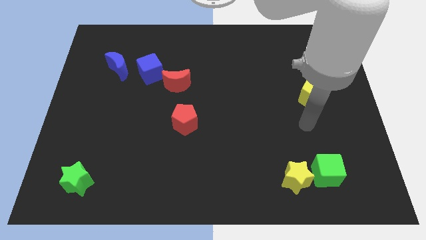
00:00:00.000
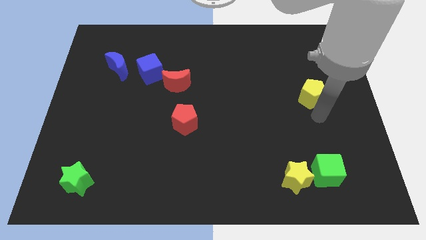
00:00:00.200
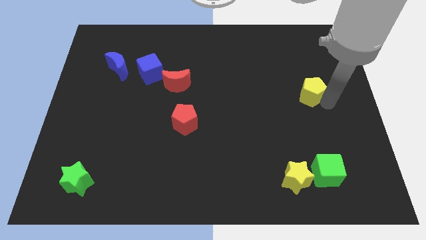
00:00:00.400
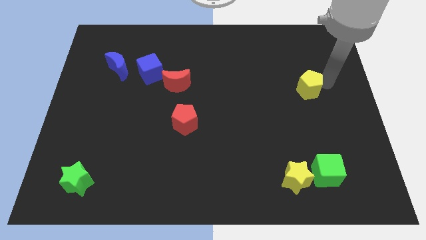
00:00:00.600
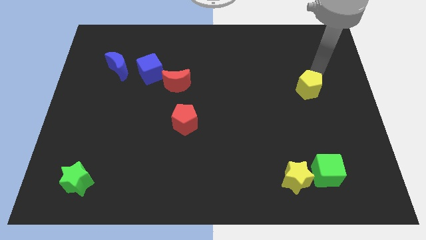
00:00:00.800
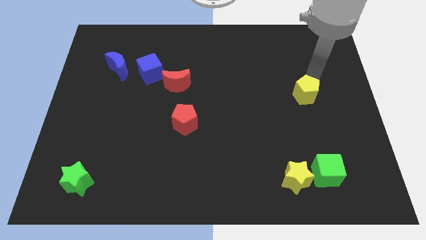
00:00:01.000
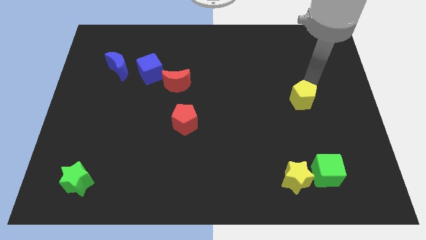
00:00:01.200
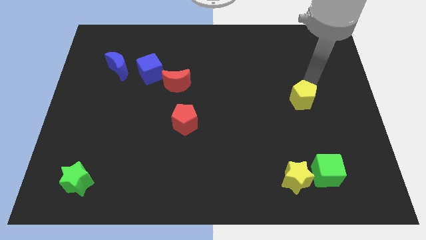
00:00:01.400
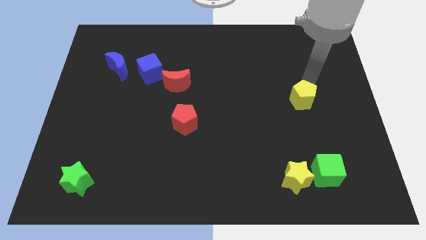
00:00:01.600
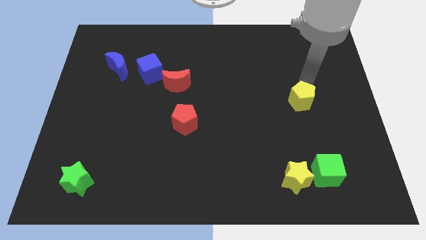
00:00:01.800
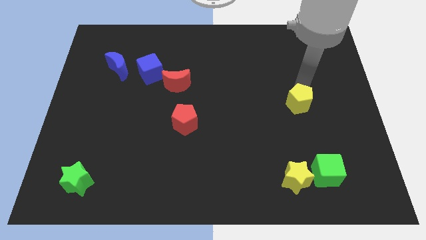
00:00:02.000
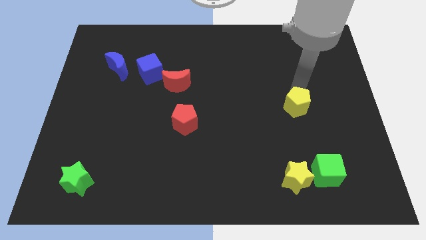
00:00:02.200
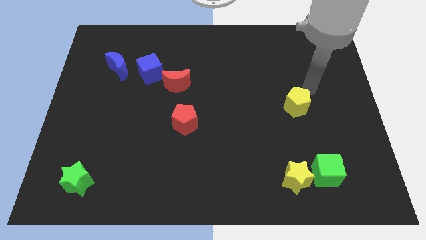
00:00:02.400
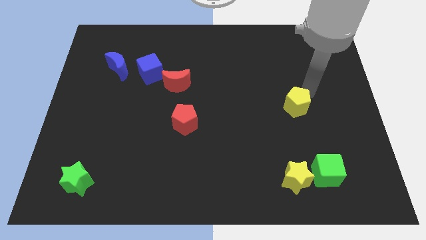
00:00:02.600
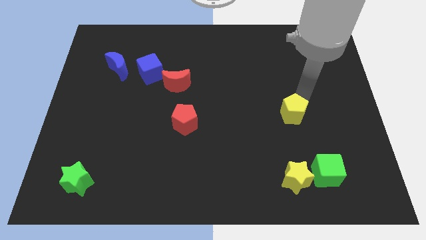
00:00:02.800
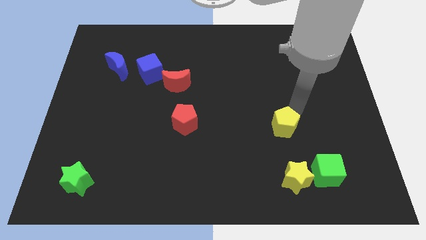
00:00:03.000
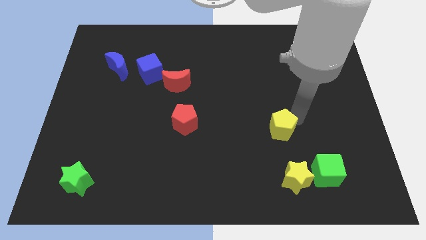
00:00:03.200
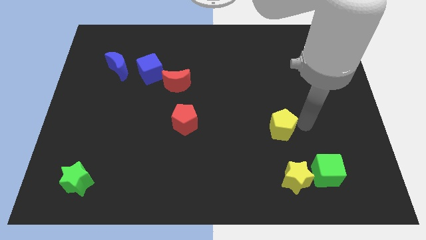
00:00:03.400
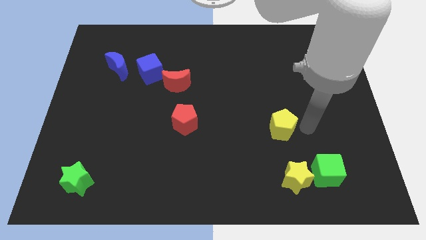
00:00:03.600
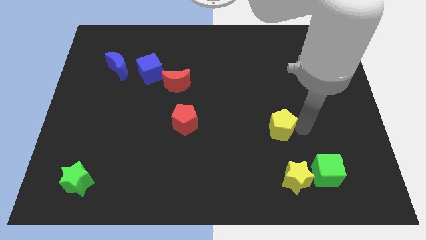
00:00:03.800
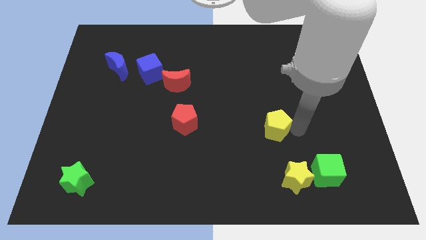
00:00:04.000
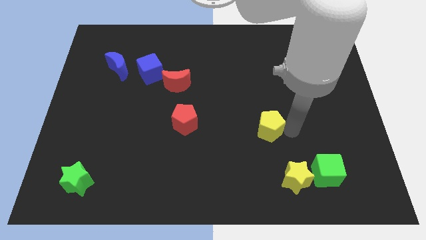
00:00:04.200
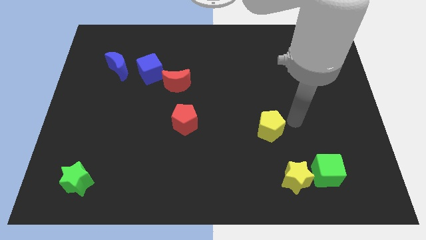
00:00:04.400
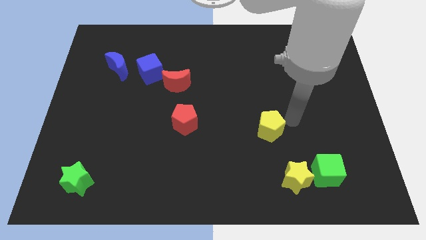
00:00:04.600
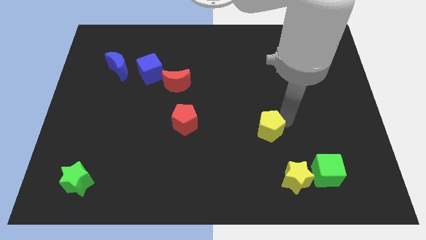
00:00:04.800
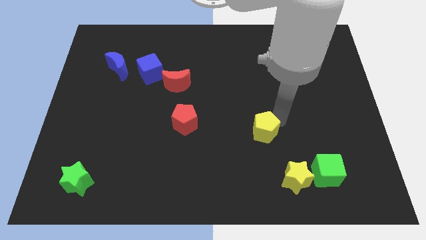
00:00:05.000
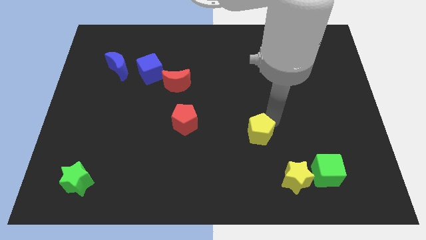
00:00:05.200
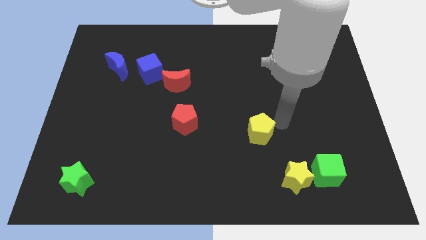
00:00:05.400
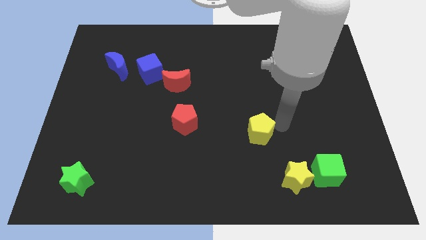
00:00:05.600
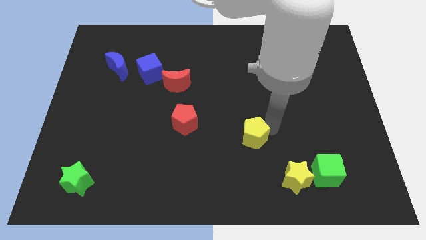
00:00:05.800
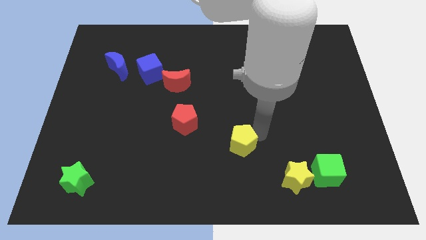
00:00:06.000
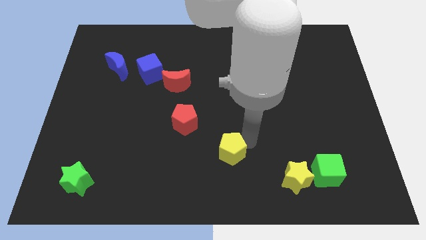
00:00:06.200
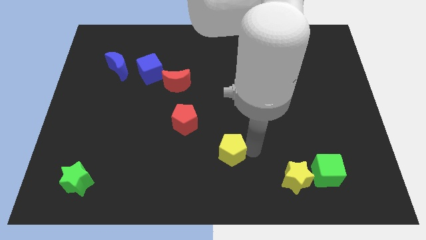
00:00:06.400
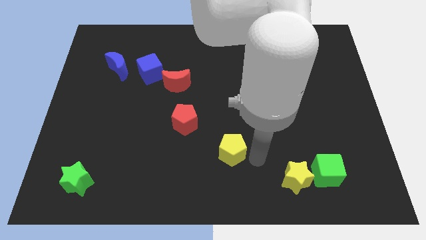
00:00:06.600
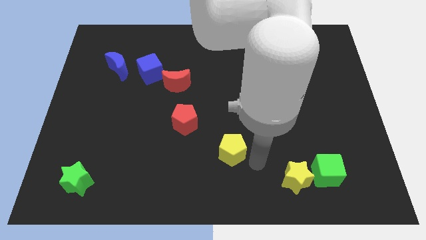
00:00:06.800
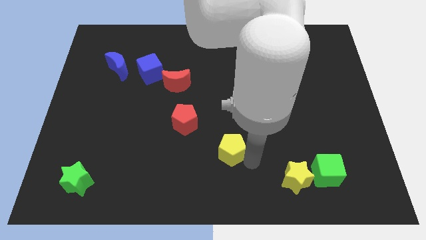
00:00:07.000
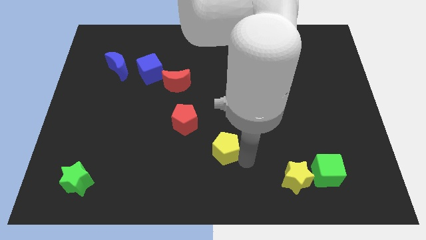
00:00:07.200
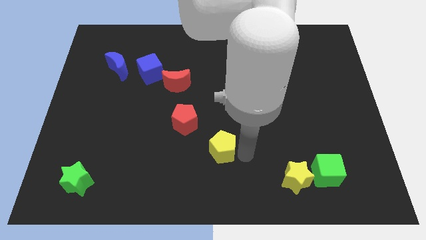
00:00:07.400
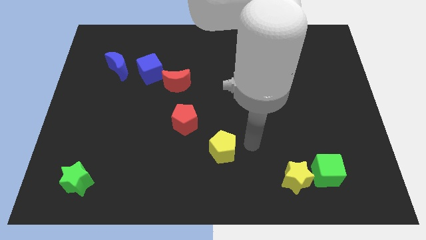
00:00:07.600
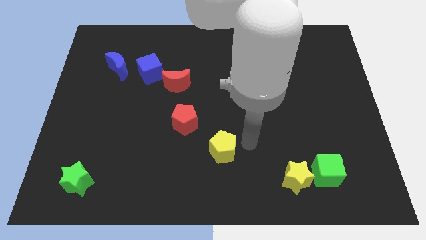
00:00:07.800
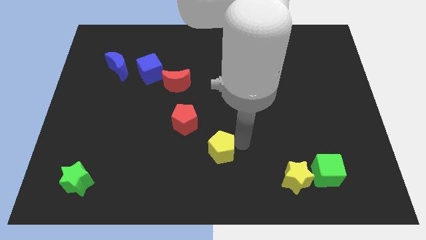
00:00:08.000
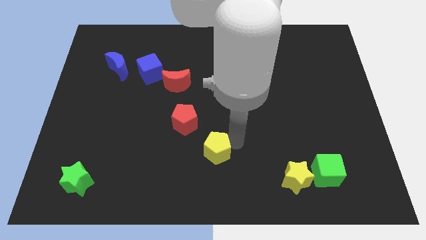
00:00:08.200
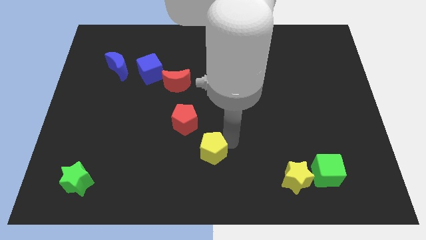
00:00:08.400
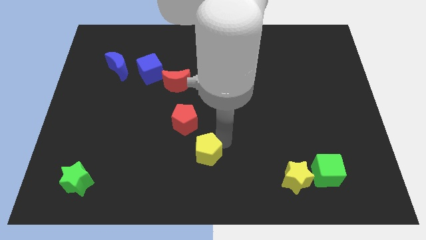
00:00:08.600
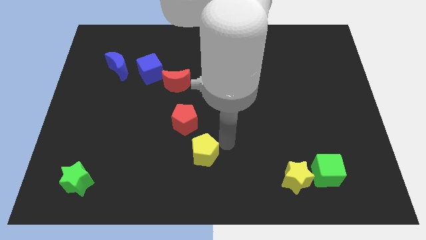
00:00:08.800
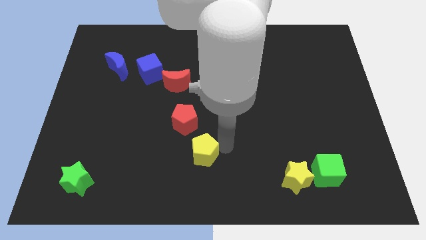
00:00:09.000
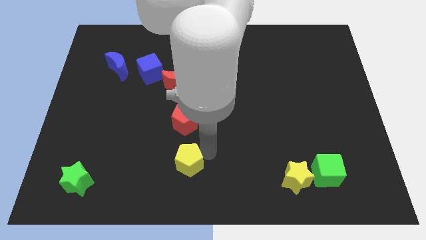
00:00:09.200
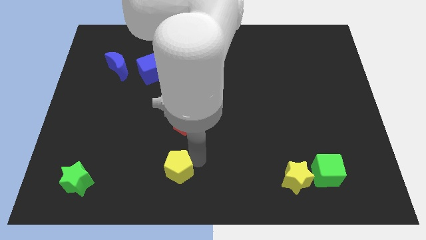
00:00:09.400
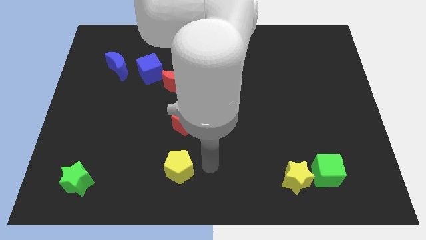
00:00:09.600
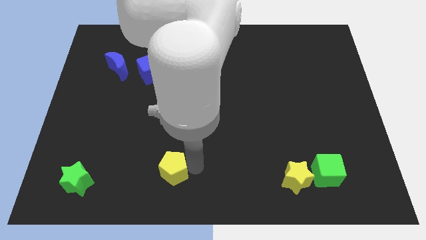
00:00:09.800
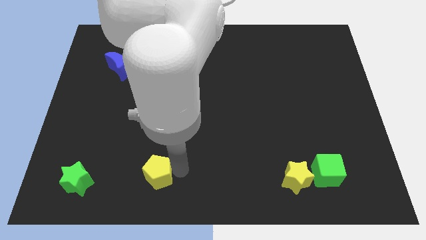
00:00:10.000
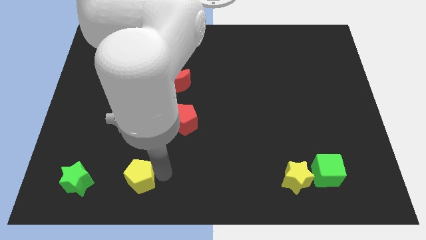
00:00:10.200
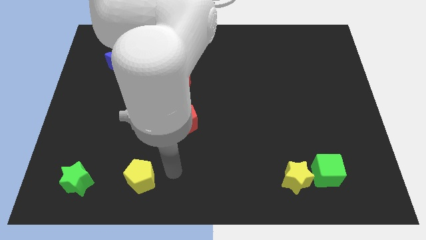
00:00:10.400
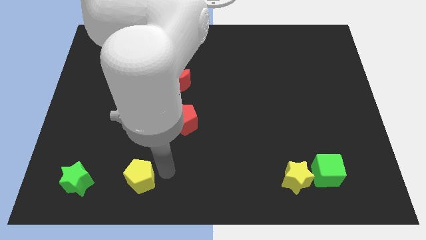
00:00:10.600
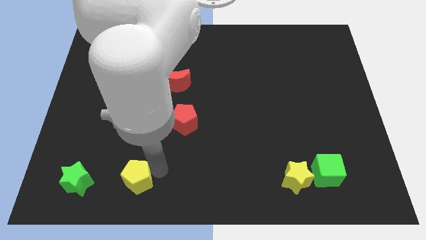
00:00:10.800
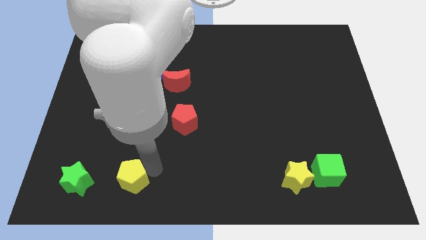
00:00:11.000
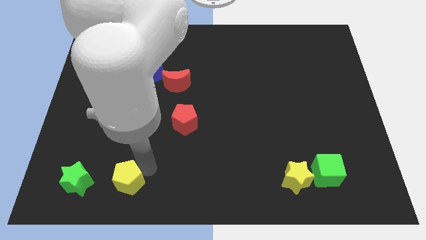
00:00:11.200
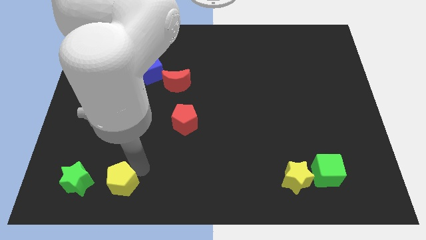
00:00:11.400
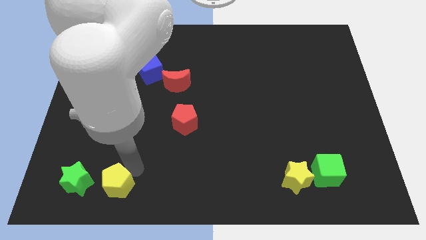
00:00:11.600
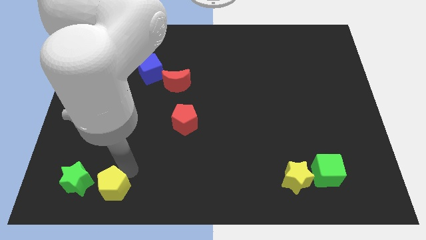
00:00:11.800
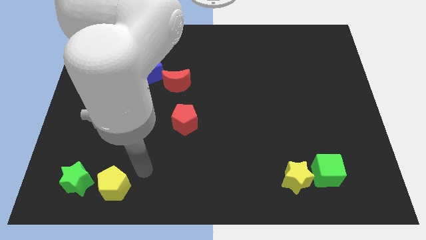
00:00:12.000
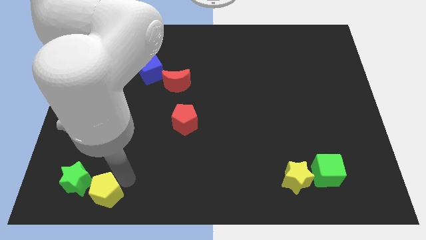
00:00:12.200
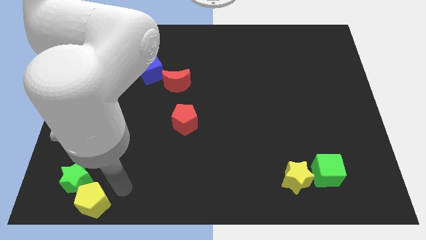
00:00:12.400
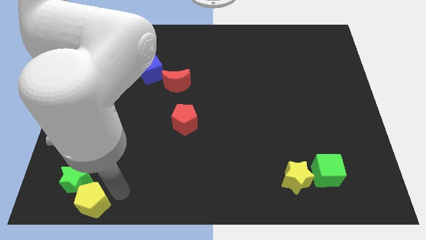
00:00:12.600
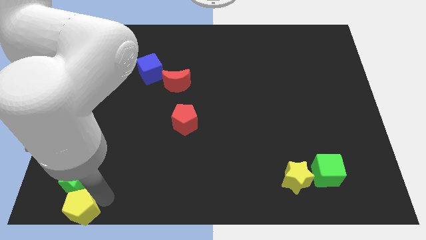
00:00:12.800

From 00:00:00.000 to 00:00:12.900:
put the yellow pentagon to the bottom left
